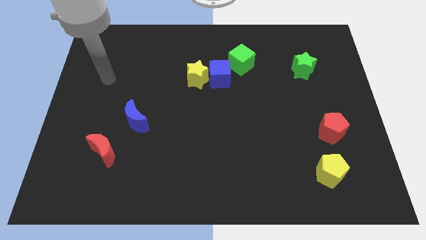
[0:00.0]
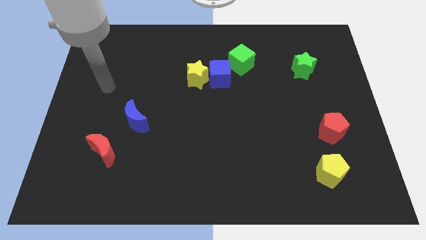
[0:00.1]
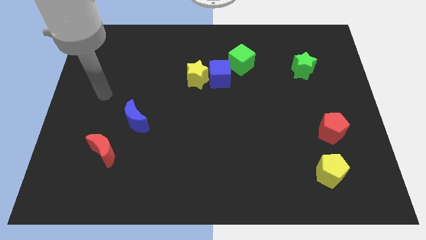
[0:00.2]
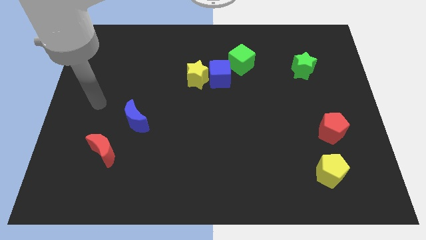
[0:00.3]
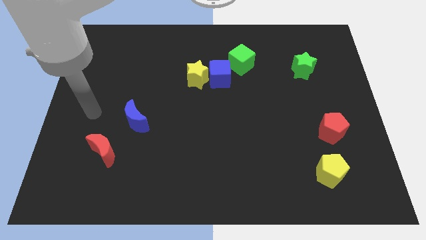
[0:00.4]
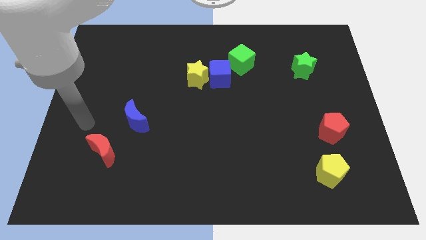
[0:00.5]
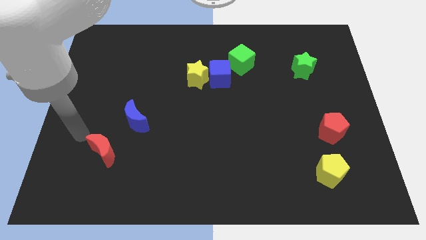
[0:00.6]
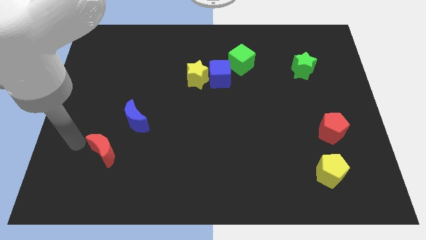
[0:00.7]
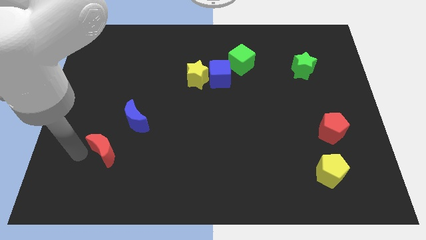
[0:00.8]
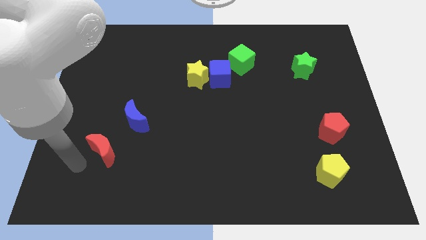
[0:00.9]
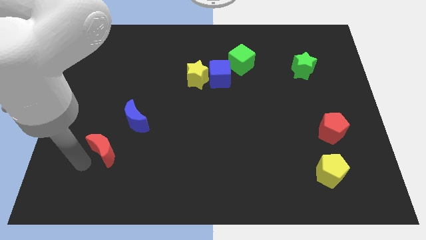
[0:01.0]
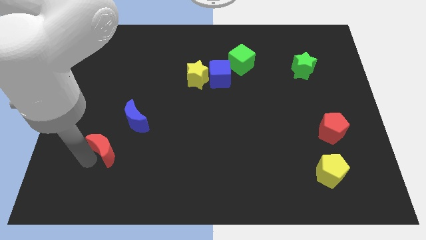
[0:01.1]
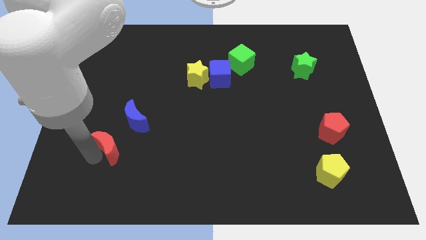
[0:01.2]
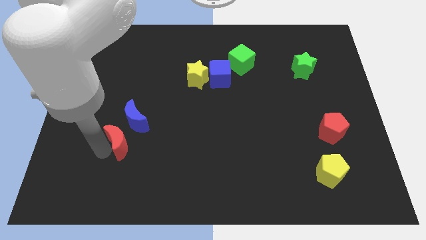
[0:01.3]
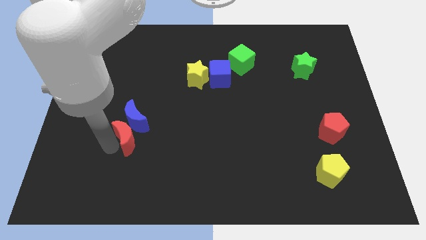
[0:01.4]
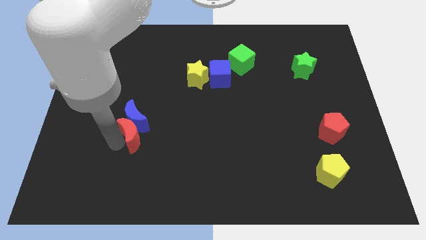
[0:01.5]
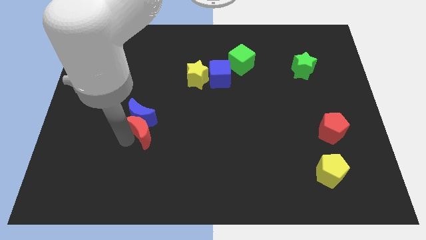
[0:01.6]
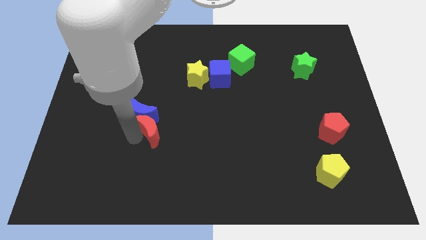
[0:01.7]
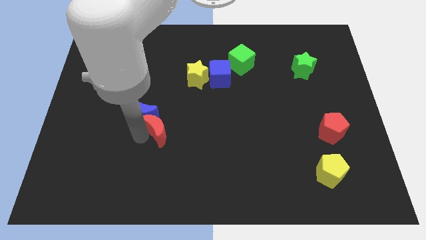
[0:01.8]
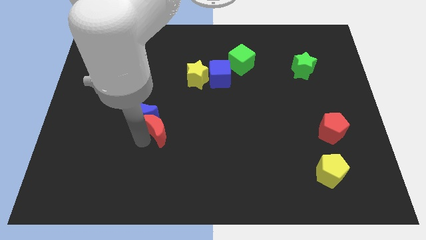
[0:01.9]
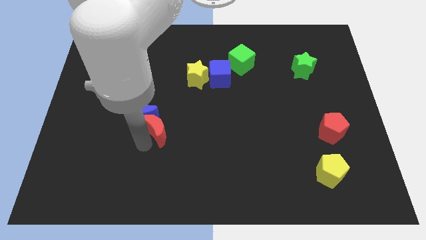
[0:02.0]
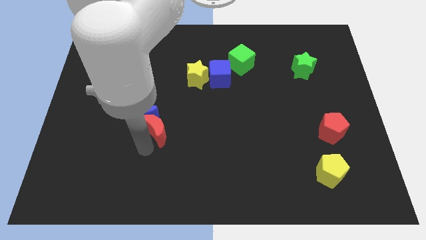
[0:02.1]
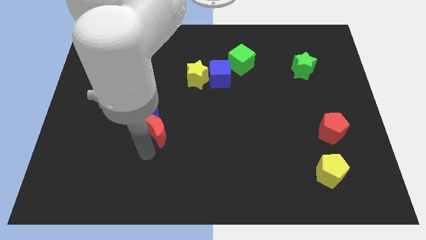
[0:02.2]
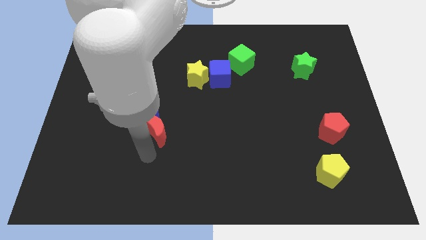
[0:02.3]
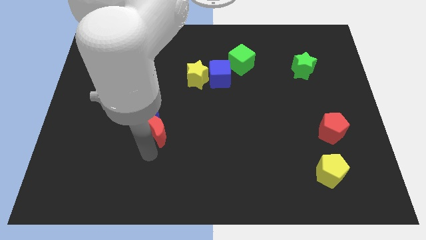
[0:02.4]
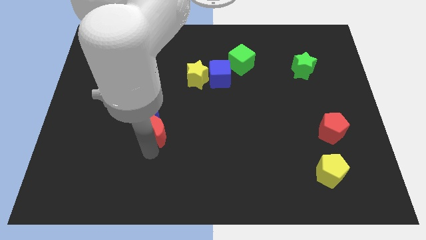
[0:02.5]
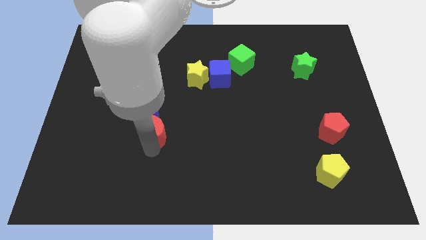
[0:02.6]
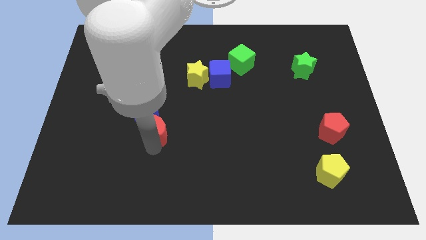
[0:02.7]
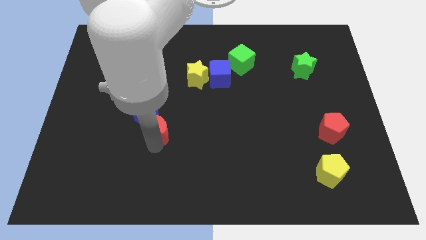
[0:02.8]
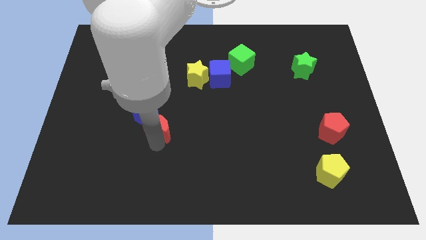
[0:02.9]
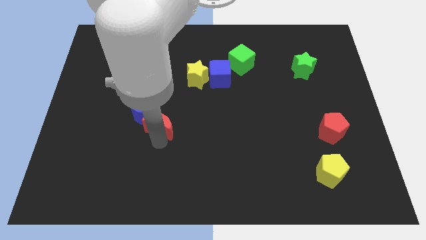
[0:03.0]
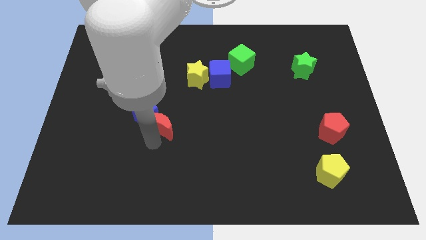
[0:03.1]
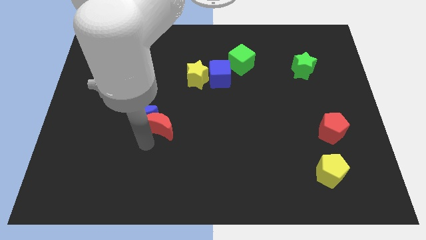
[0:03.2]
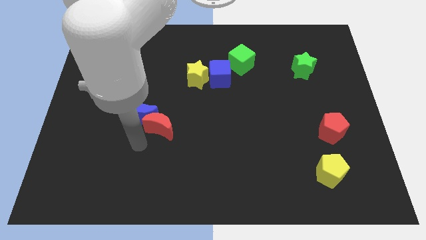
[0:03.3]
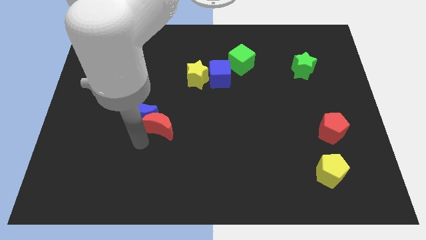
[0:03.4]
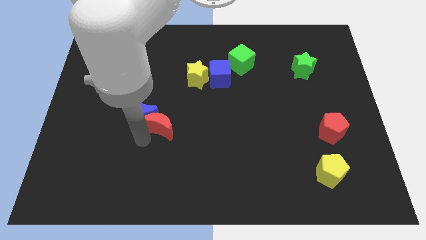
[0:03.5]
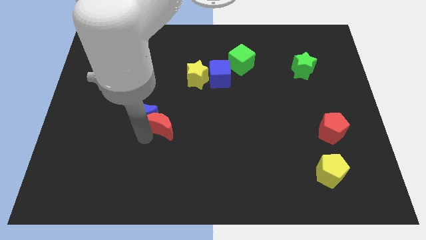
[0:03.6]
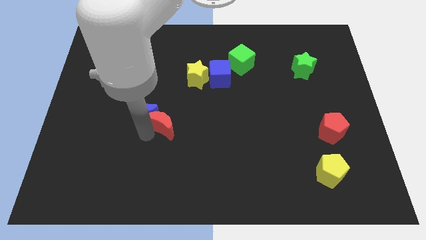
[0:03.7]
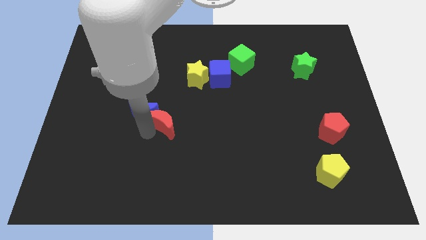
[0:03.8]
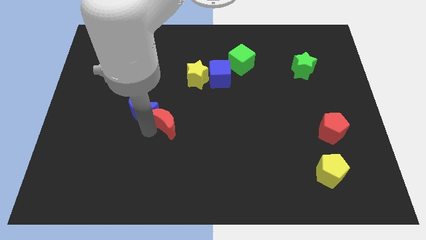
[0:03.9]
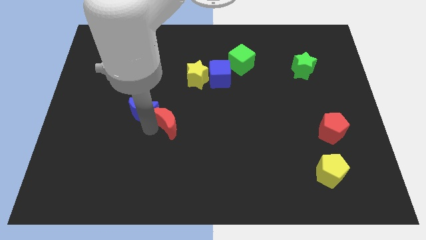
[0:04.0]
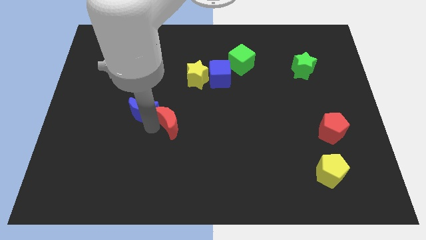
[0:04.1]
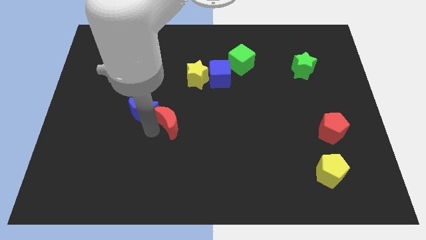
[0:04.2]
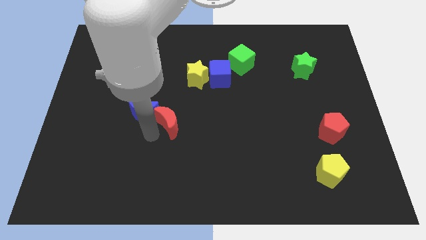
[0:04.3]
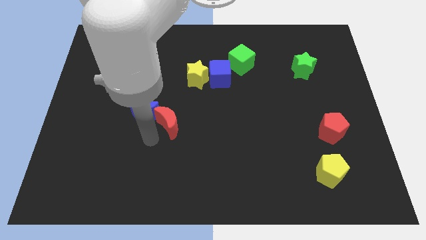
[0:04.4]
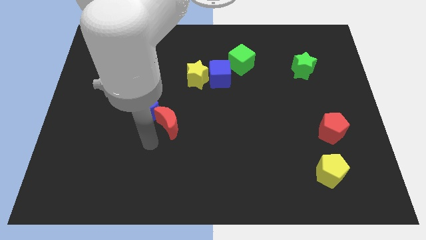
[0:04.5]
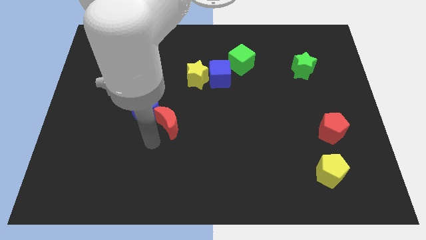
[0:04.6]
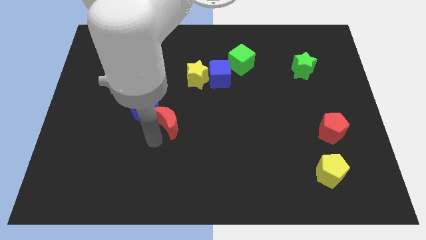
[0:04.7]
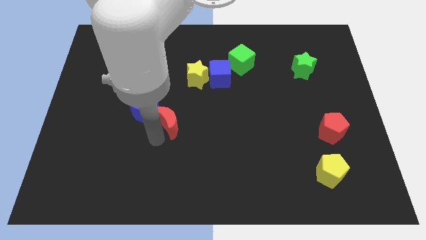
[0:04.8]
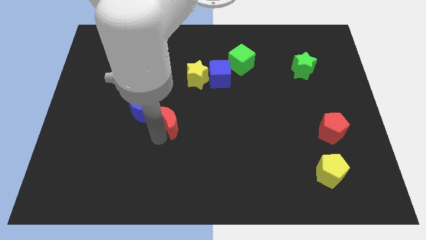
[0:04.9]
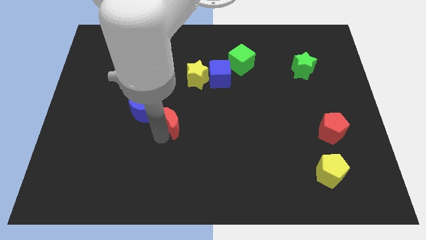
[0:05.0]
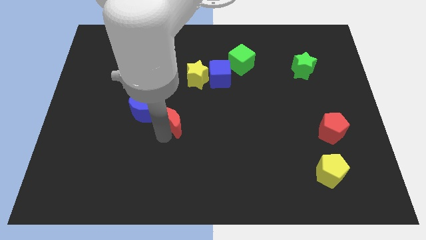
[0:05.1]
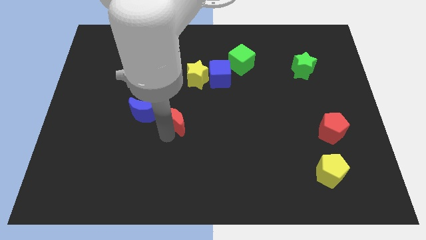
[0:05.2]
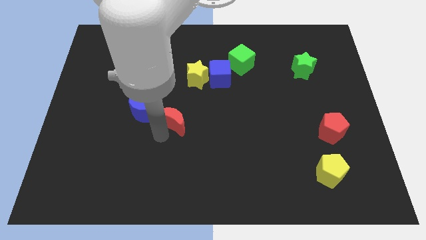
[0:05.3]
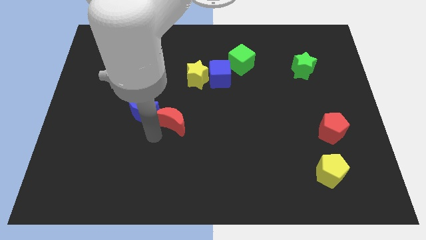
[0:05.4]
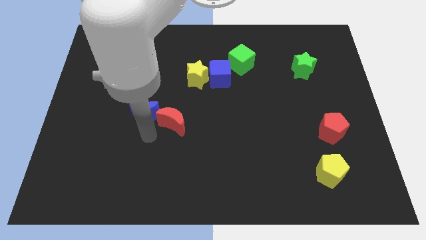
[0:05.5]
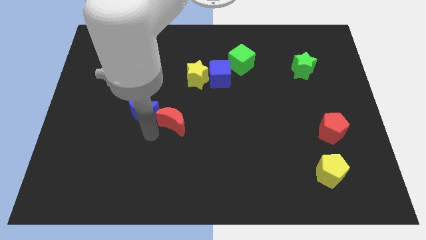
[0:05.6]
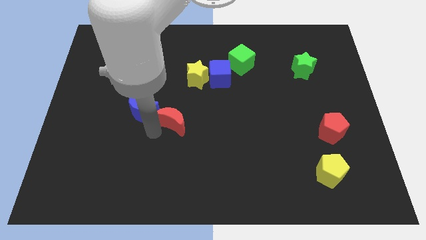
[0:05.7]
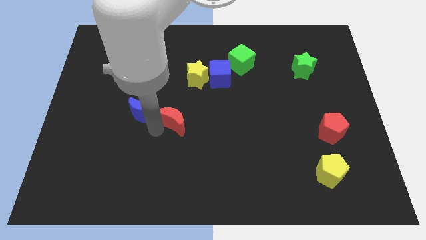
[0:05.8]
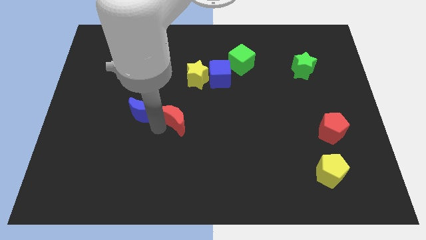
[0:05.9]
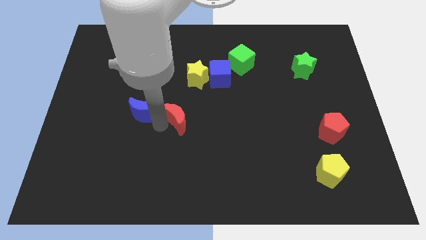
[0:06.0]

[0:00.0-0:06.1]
push the red moon to the bottom side of the yellow star

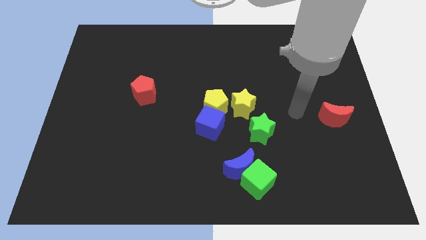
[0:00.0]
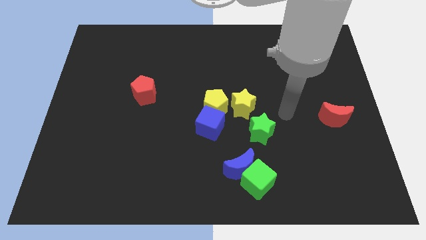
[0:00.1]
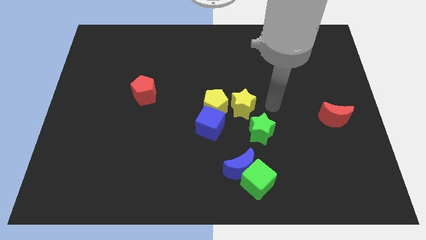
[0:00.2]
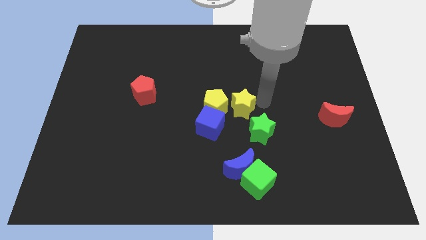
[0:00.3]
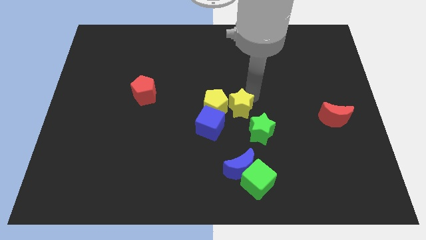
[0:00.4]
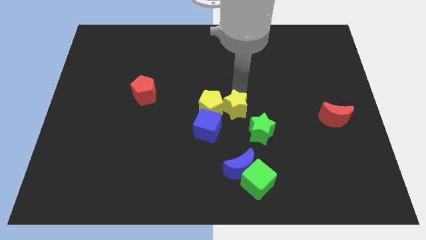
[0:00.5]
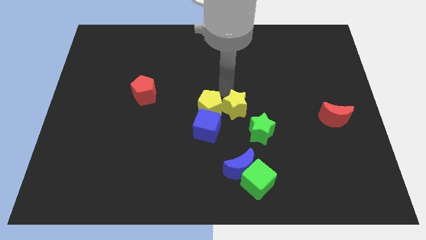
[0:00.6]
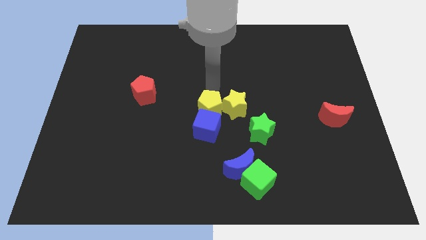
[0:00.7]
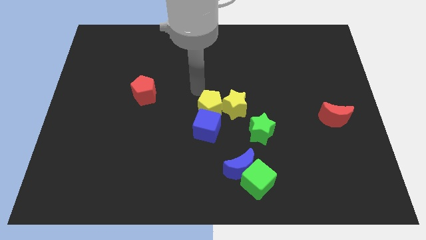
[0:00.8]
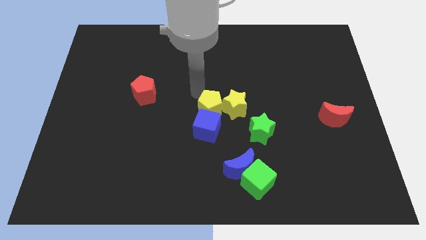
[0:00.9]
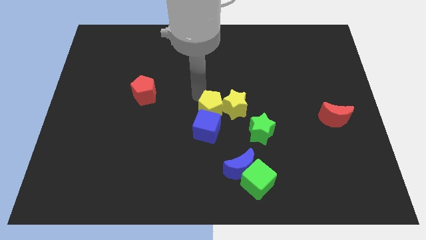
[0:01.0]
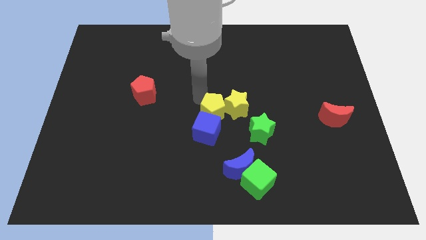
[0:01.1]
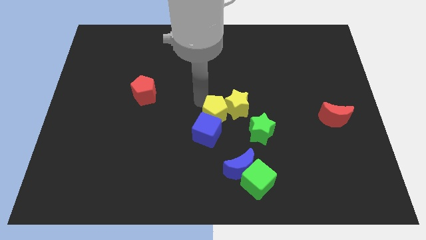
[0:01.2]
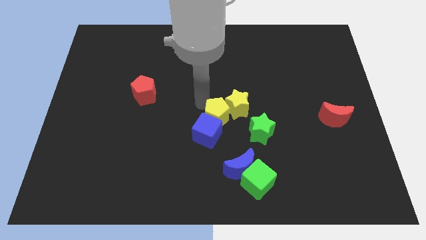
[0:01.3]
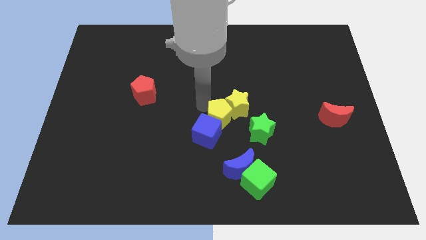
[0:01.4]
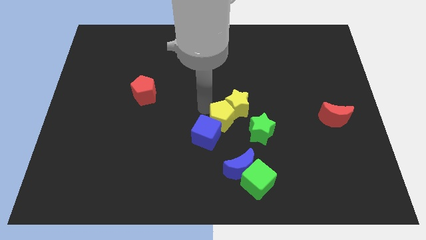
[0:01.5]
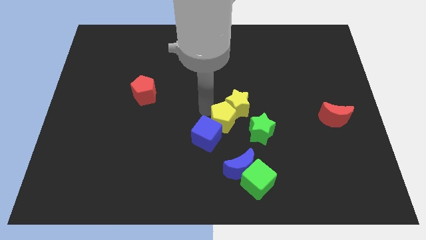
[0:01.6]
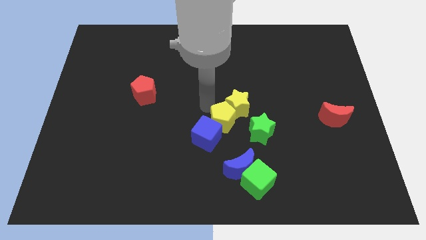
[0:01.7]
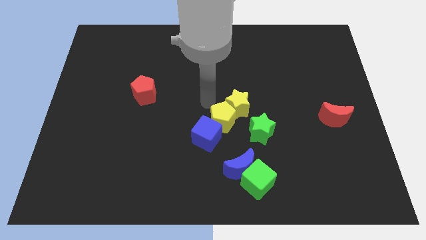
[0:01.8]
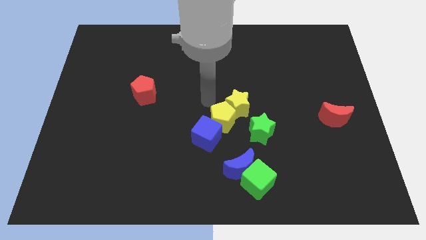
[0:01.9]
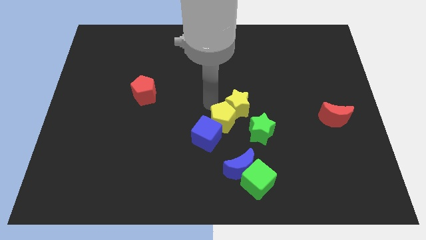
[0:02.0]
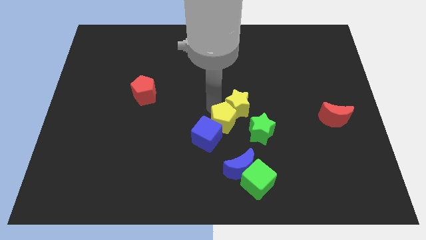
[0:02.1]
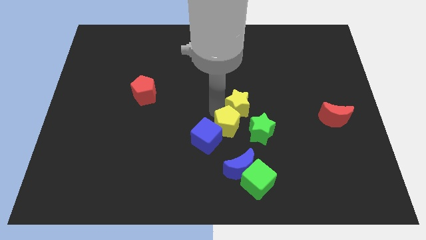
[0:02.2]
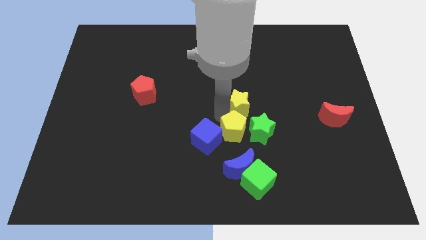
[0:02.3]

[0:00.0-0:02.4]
move the yellow pentagon to the bottom left side of the green star
